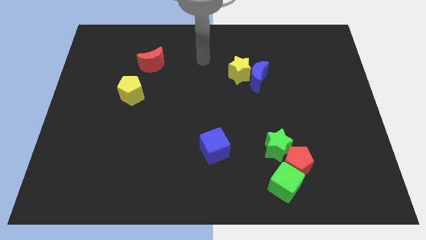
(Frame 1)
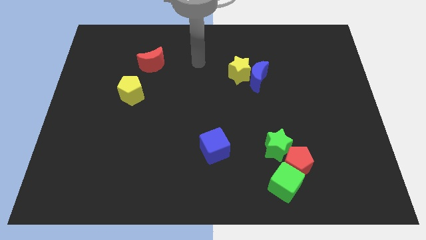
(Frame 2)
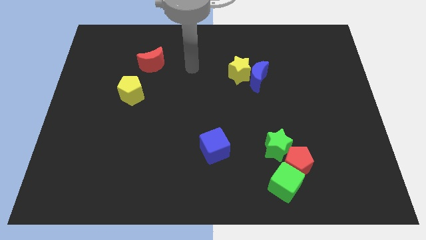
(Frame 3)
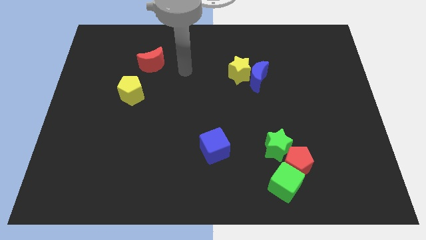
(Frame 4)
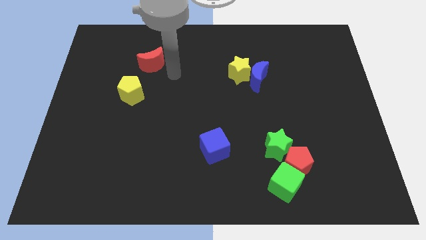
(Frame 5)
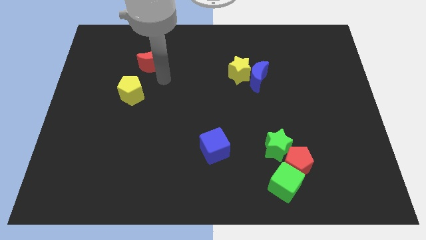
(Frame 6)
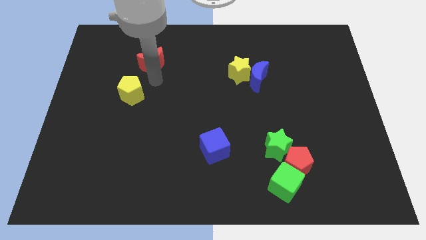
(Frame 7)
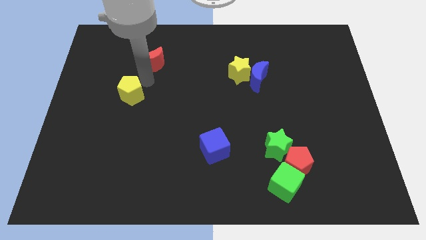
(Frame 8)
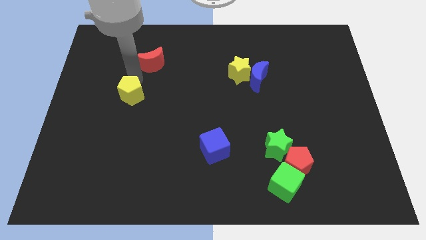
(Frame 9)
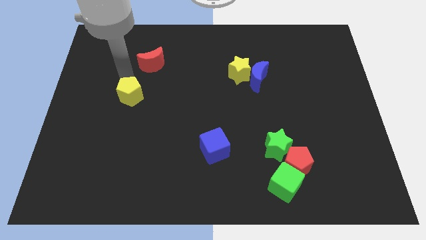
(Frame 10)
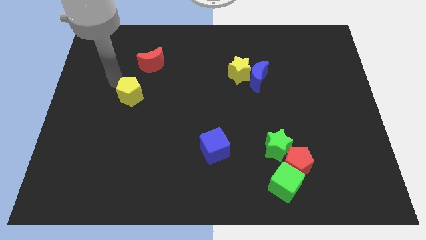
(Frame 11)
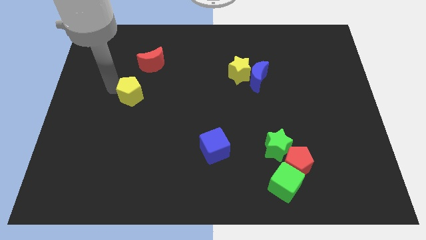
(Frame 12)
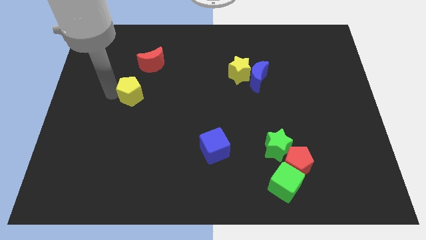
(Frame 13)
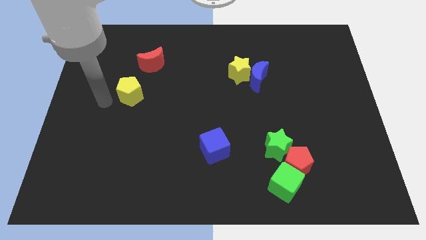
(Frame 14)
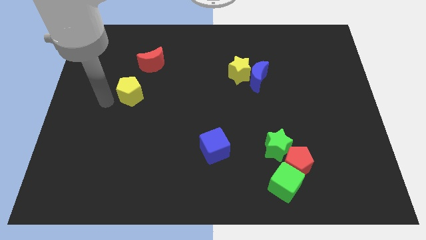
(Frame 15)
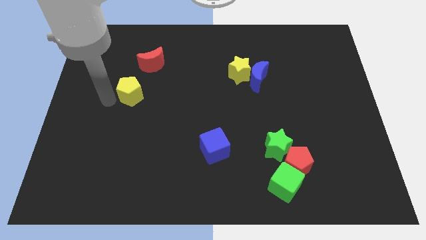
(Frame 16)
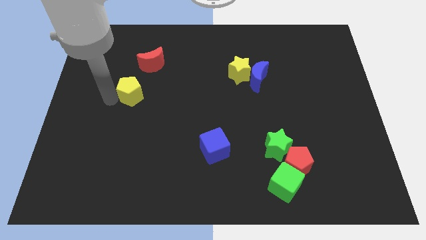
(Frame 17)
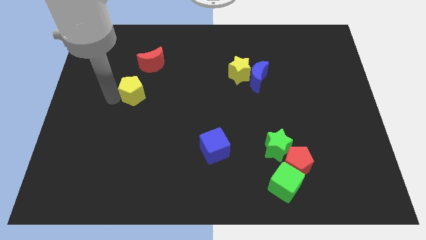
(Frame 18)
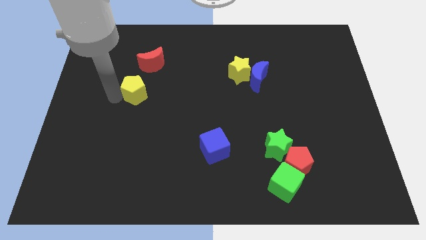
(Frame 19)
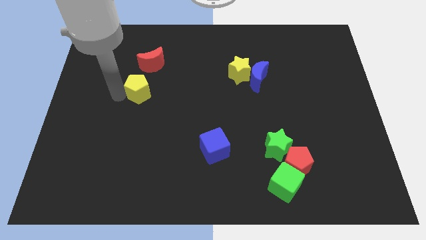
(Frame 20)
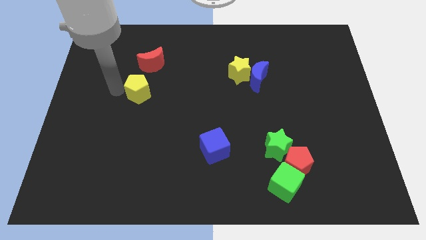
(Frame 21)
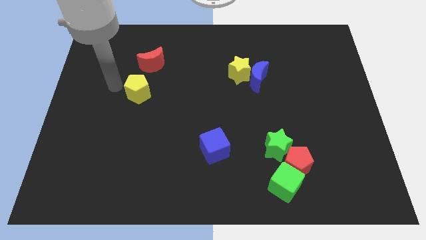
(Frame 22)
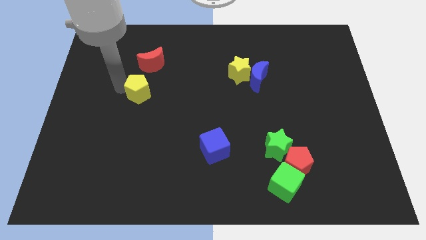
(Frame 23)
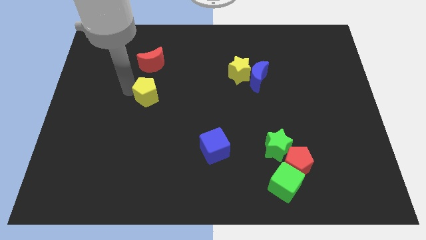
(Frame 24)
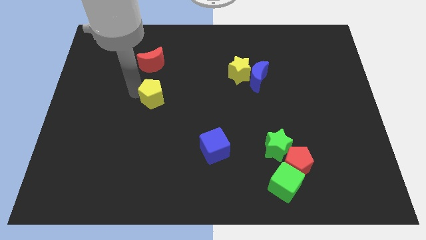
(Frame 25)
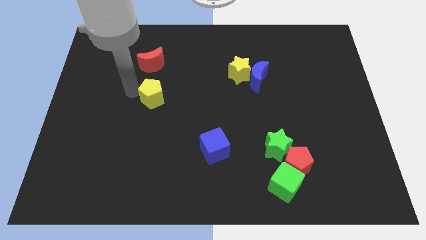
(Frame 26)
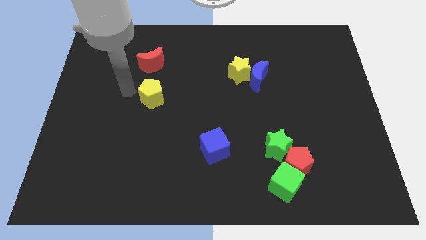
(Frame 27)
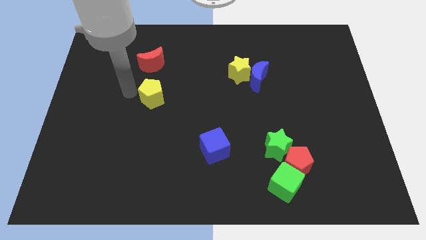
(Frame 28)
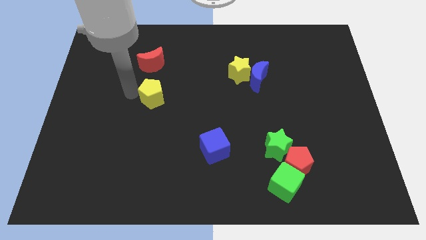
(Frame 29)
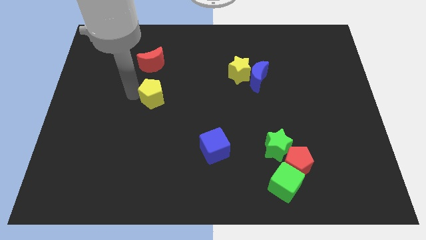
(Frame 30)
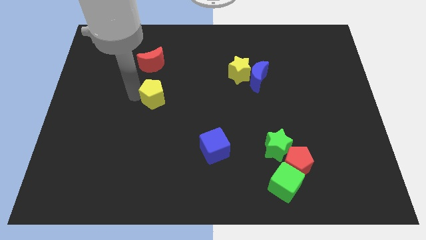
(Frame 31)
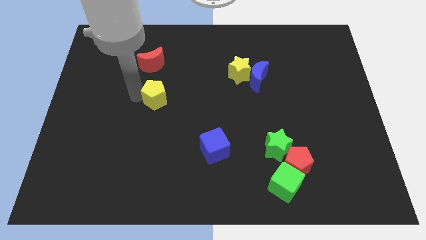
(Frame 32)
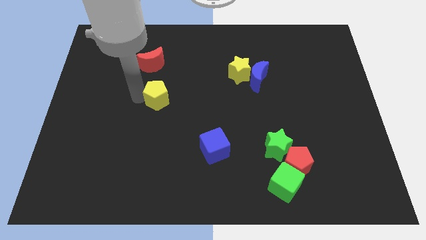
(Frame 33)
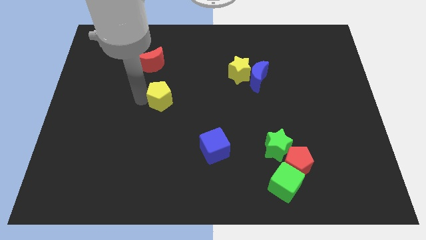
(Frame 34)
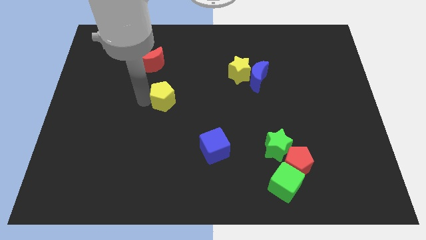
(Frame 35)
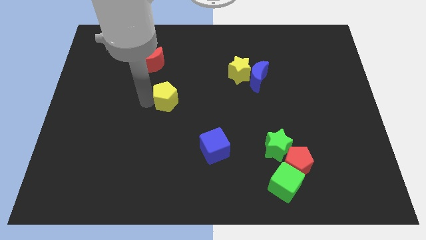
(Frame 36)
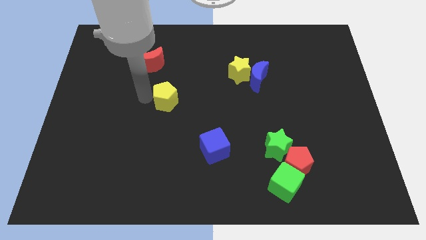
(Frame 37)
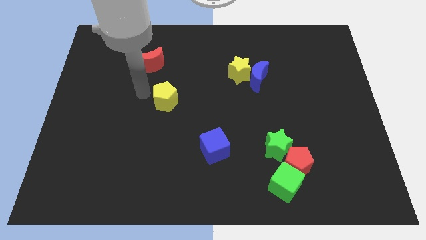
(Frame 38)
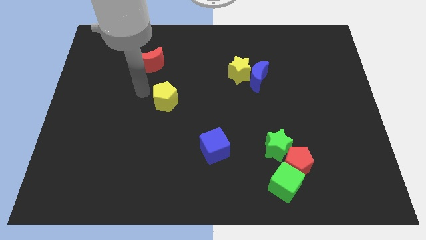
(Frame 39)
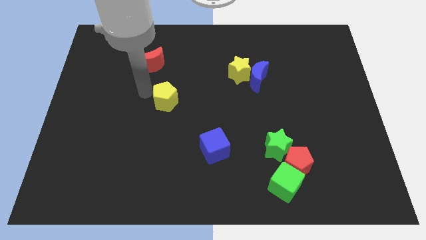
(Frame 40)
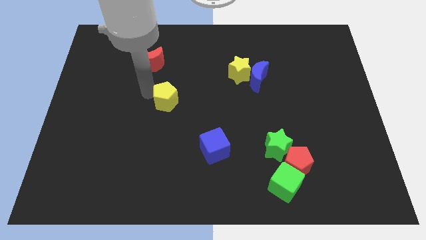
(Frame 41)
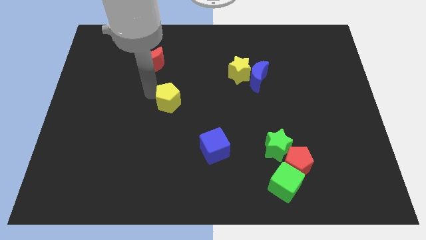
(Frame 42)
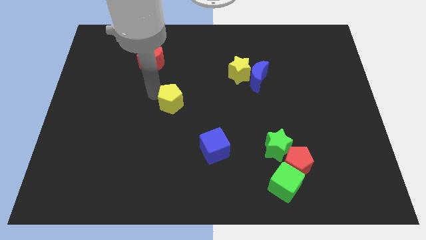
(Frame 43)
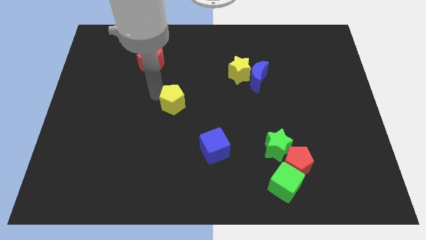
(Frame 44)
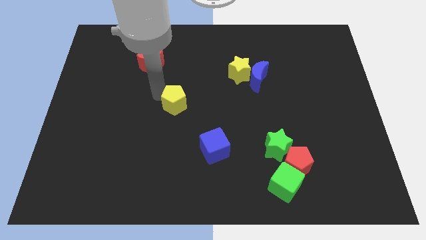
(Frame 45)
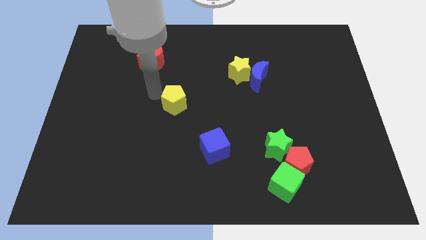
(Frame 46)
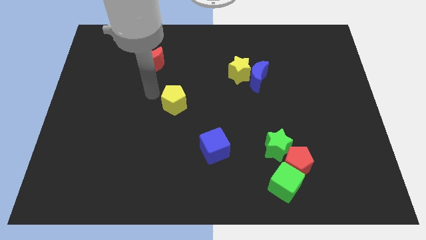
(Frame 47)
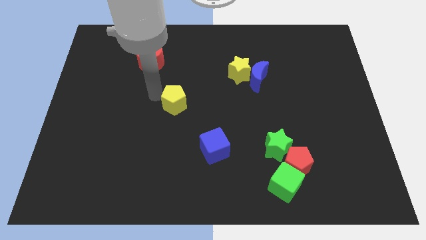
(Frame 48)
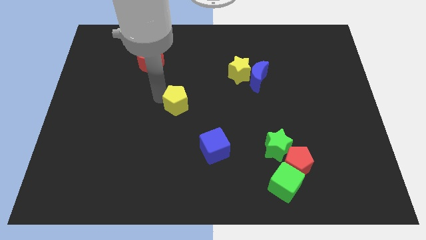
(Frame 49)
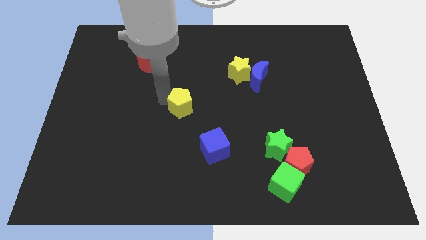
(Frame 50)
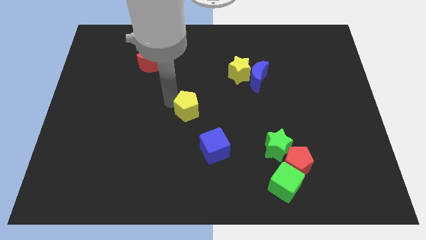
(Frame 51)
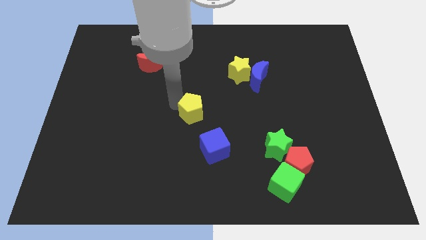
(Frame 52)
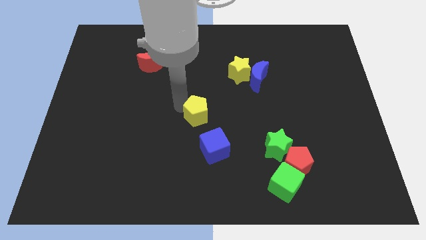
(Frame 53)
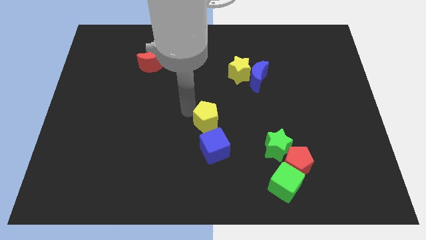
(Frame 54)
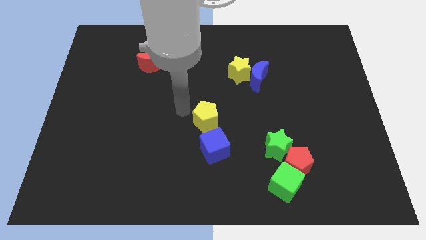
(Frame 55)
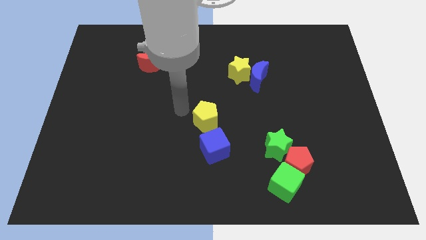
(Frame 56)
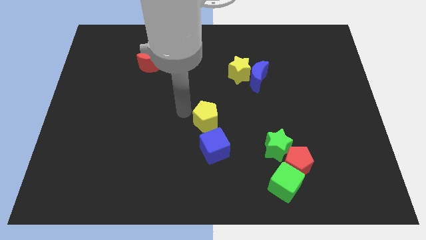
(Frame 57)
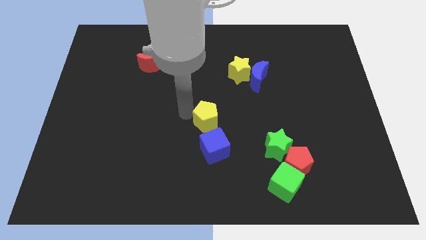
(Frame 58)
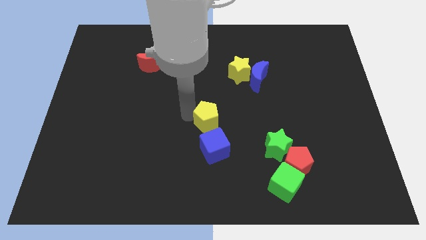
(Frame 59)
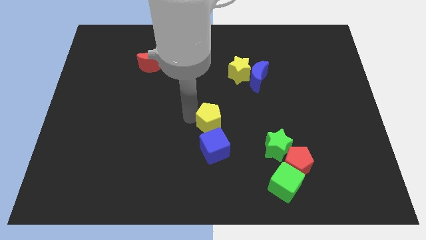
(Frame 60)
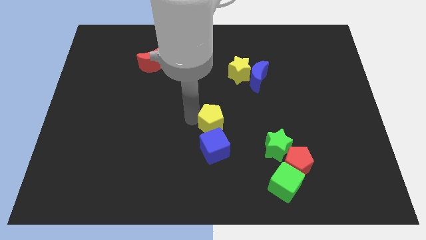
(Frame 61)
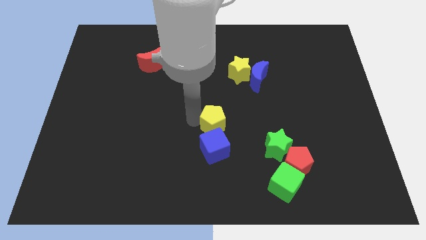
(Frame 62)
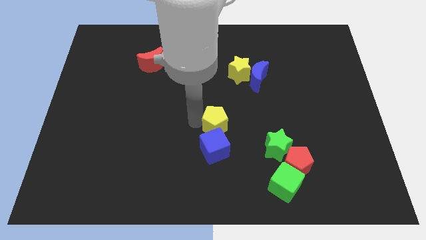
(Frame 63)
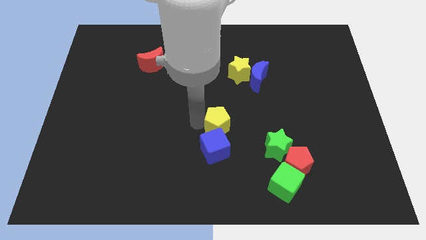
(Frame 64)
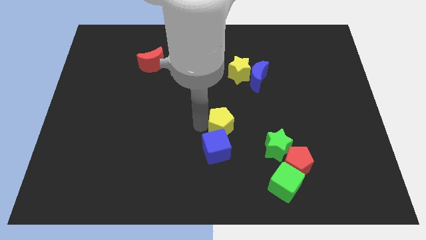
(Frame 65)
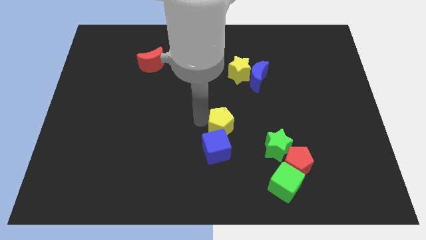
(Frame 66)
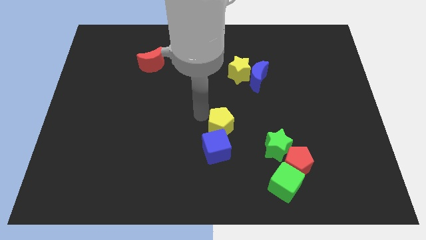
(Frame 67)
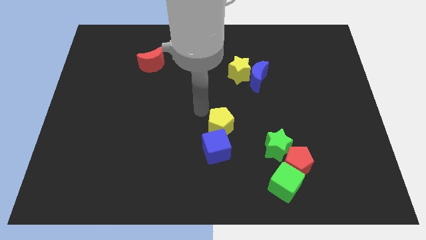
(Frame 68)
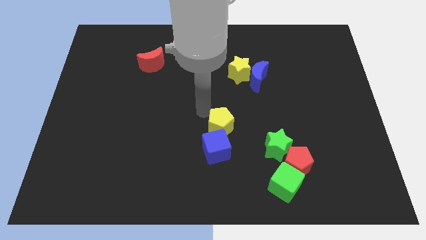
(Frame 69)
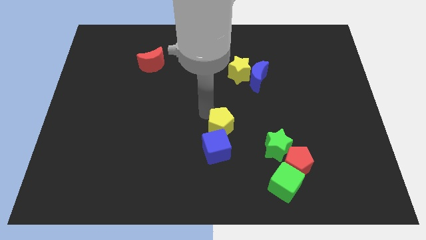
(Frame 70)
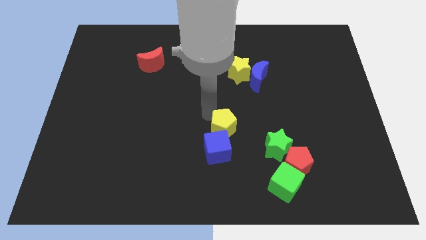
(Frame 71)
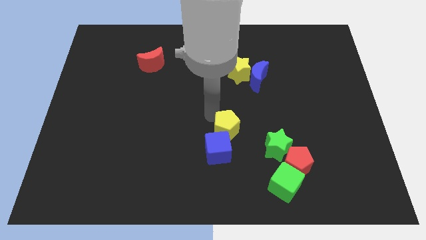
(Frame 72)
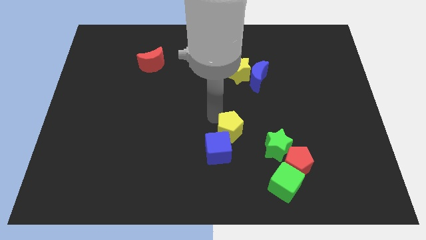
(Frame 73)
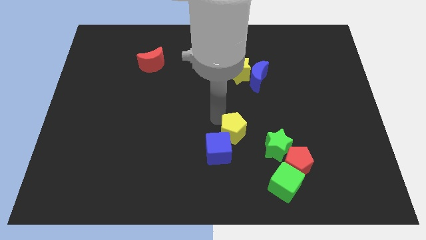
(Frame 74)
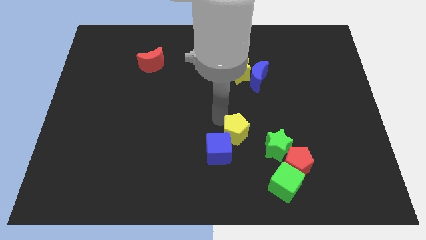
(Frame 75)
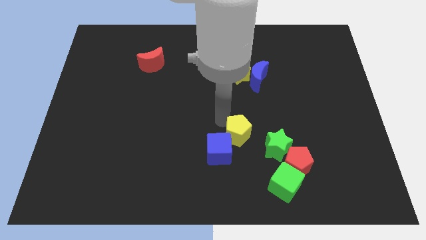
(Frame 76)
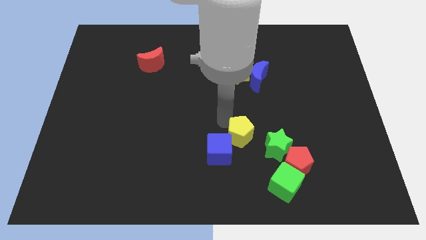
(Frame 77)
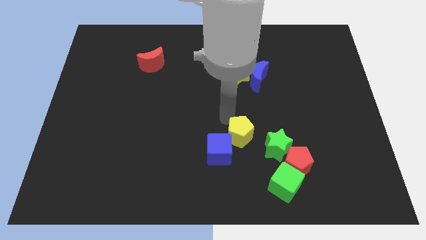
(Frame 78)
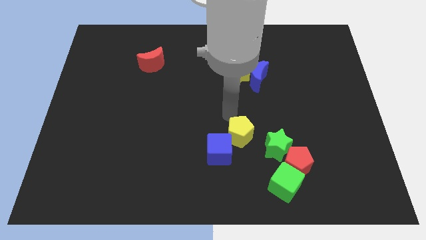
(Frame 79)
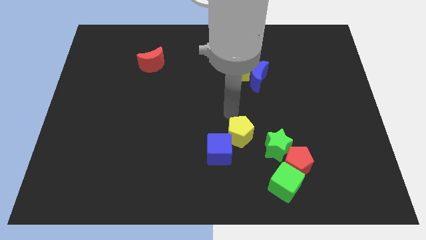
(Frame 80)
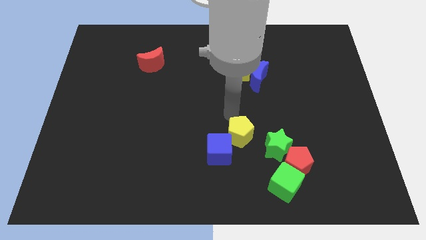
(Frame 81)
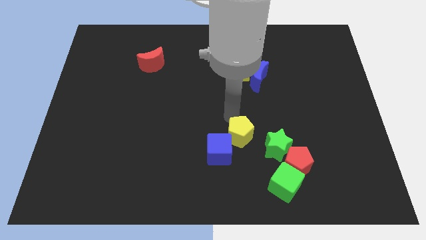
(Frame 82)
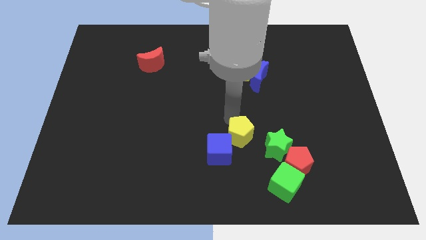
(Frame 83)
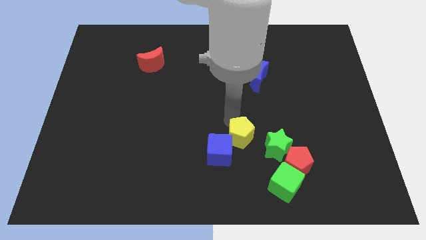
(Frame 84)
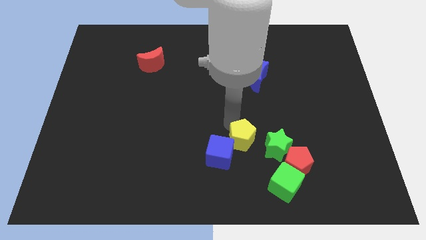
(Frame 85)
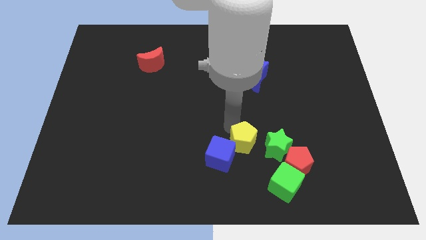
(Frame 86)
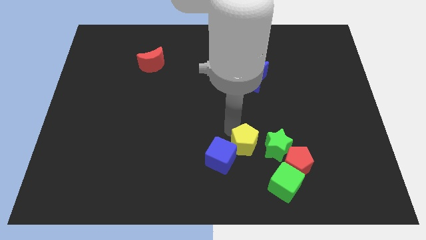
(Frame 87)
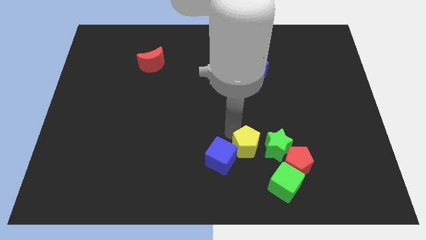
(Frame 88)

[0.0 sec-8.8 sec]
slide the yellow pentagon to the bottom left of the green star
